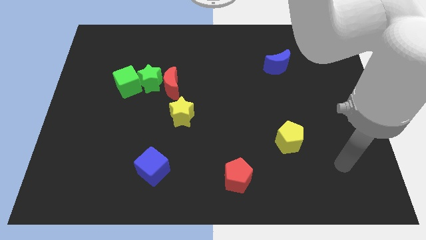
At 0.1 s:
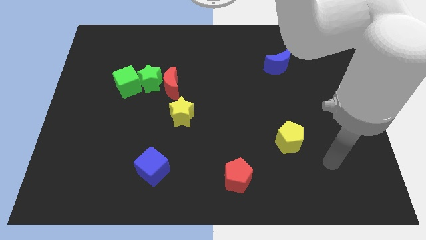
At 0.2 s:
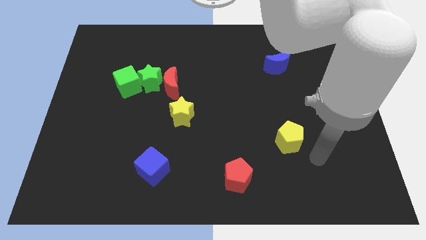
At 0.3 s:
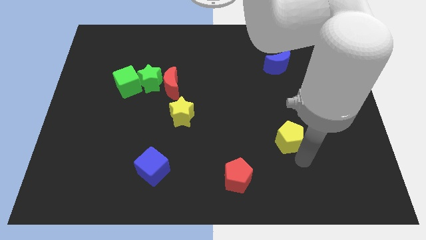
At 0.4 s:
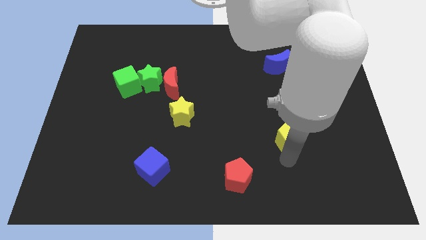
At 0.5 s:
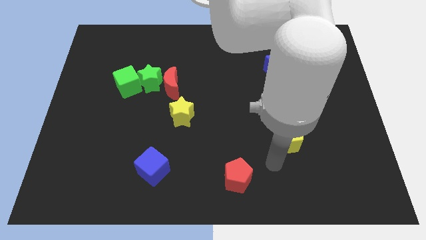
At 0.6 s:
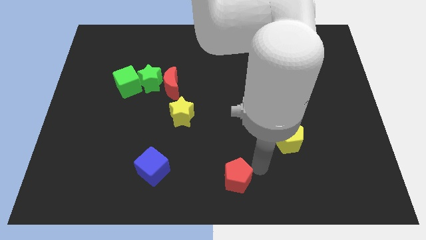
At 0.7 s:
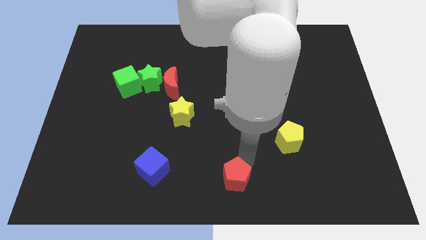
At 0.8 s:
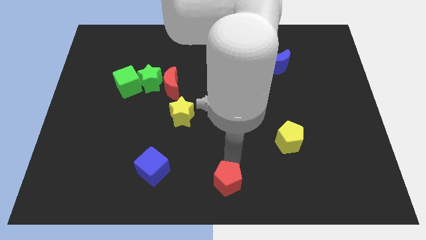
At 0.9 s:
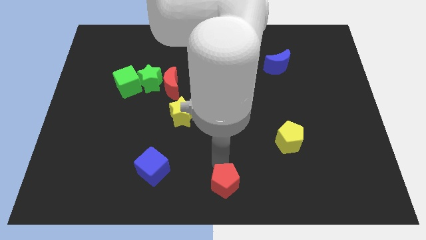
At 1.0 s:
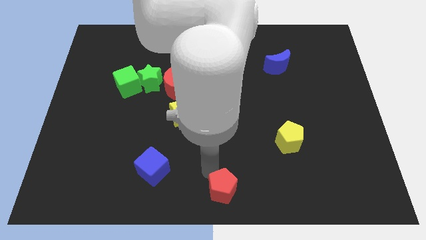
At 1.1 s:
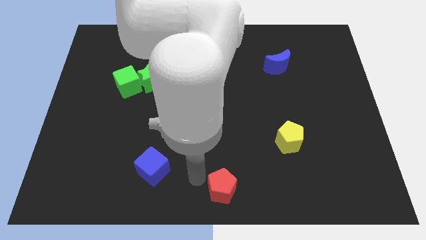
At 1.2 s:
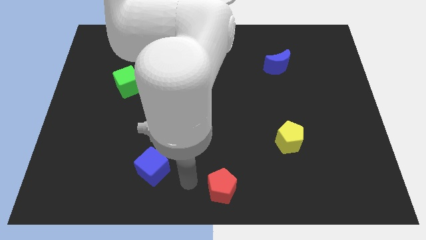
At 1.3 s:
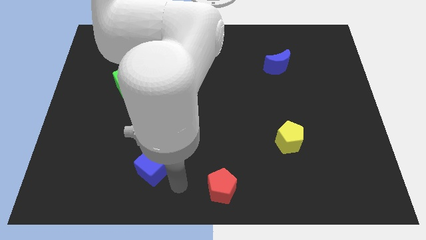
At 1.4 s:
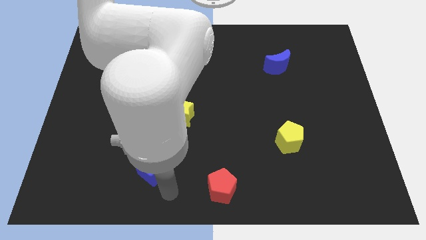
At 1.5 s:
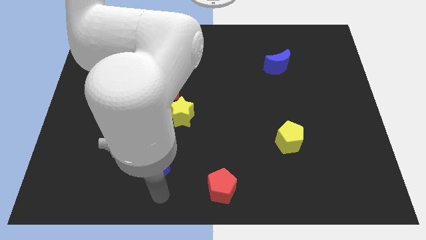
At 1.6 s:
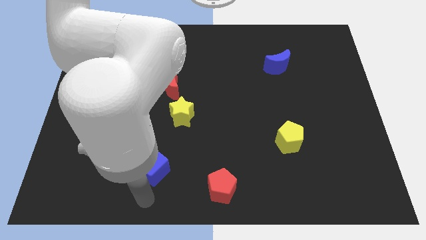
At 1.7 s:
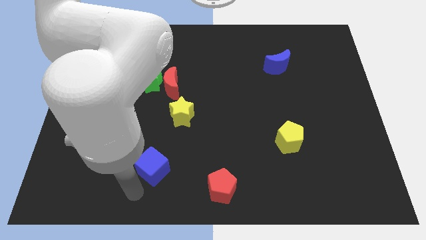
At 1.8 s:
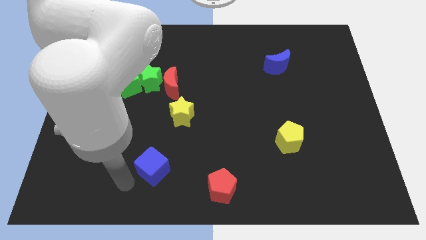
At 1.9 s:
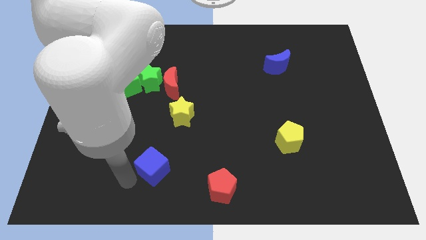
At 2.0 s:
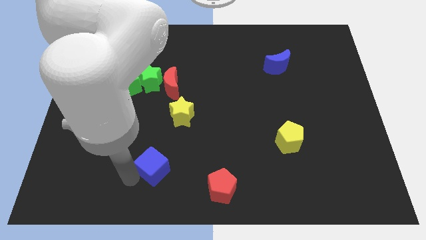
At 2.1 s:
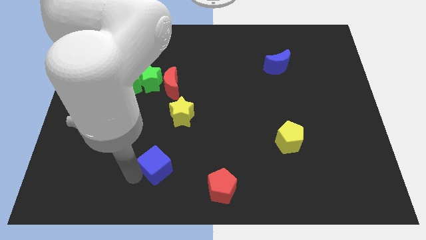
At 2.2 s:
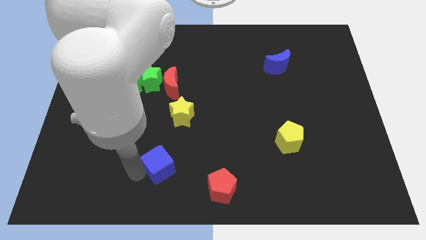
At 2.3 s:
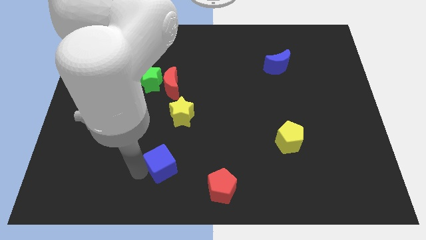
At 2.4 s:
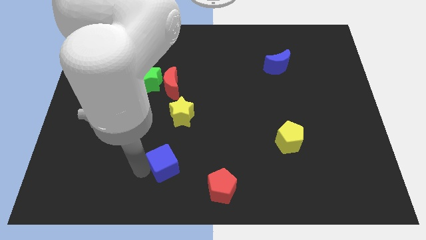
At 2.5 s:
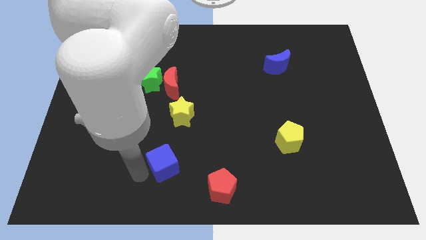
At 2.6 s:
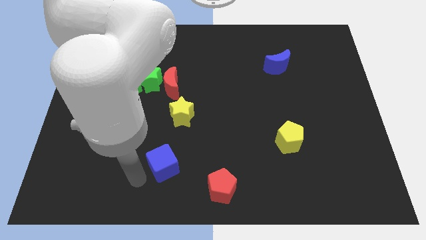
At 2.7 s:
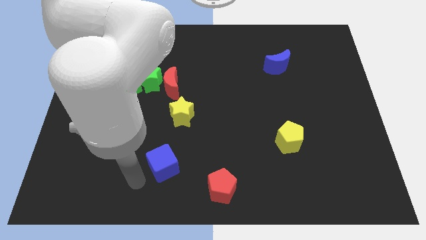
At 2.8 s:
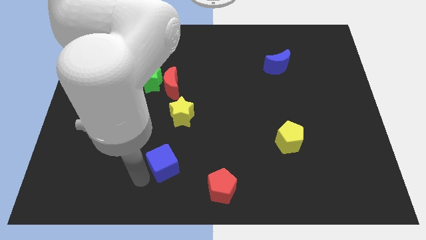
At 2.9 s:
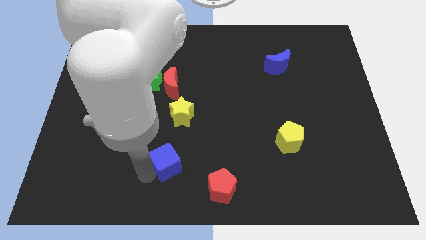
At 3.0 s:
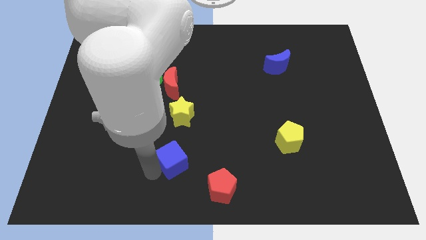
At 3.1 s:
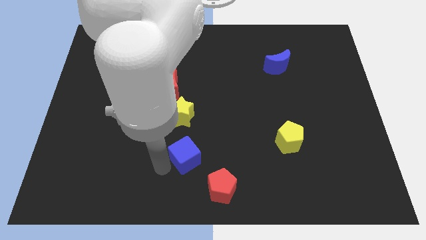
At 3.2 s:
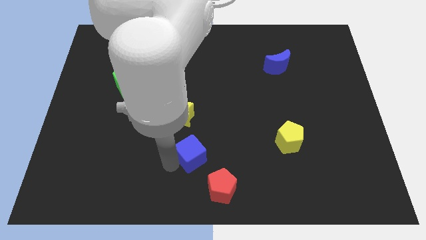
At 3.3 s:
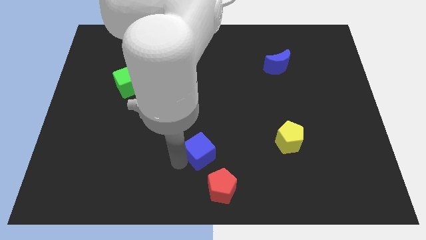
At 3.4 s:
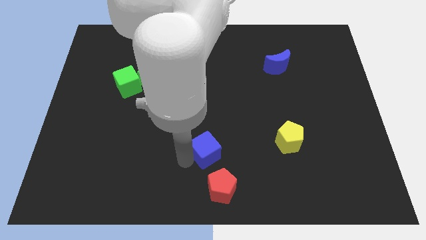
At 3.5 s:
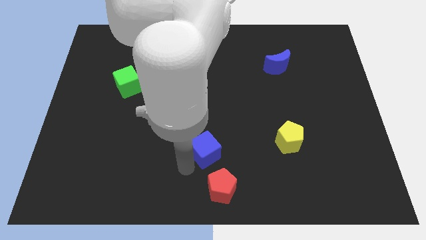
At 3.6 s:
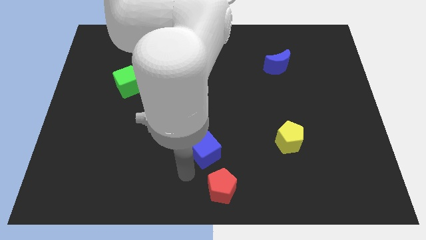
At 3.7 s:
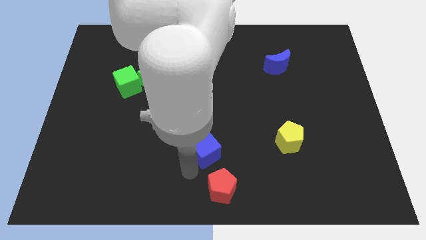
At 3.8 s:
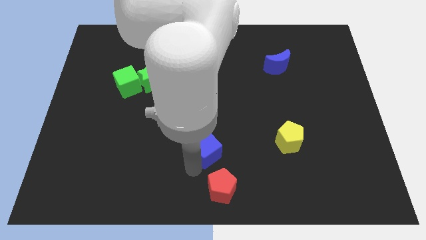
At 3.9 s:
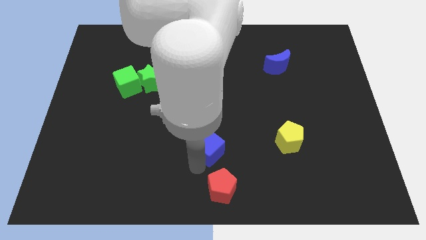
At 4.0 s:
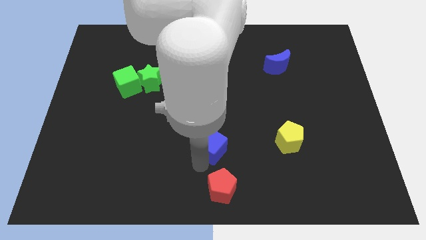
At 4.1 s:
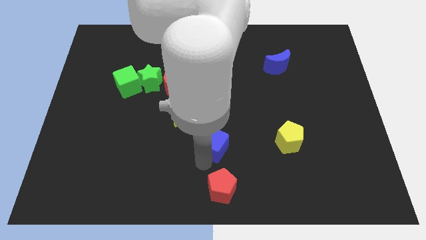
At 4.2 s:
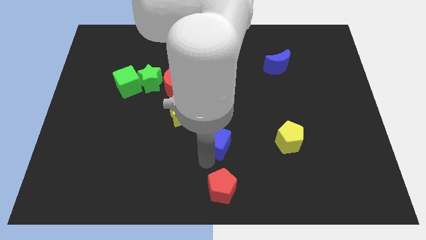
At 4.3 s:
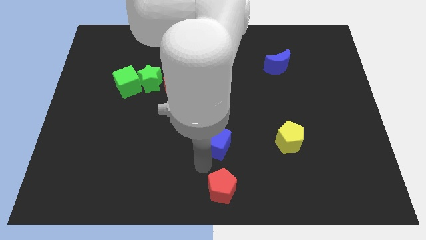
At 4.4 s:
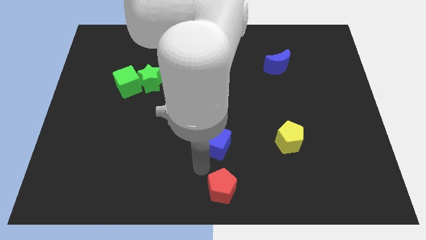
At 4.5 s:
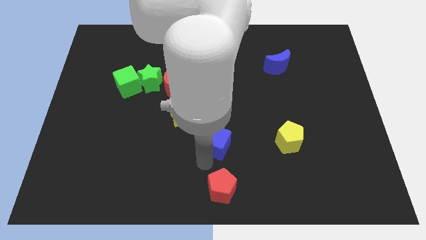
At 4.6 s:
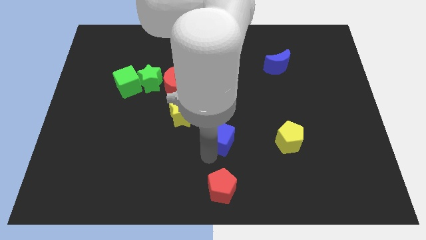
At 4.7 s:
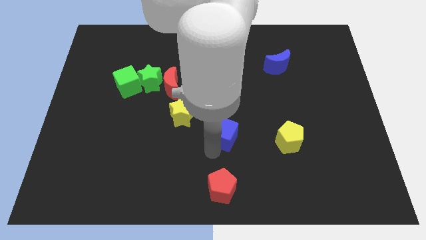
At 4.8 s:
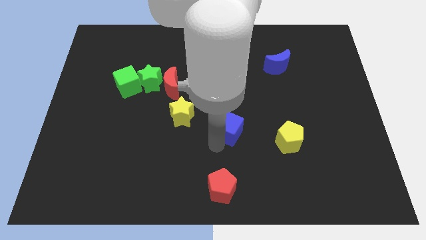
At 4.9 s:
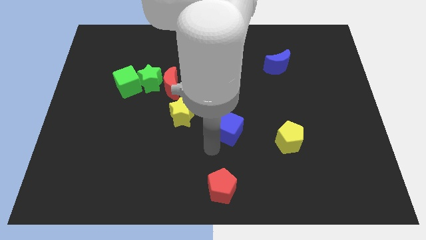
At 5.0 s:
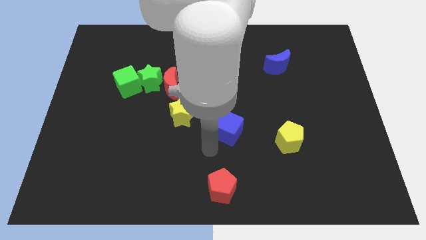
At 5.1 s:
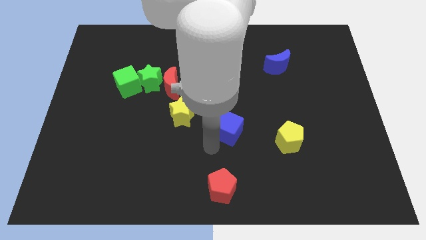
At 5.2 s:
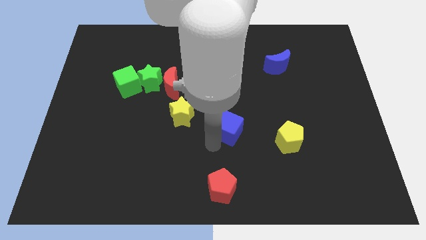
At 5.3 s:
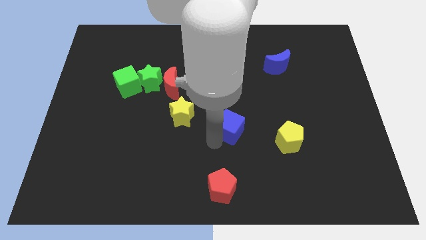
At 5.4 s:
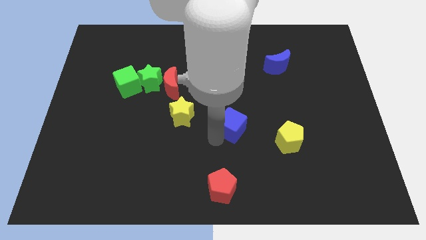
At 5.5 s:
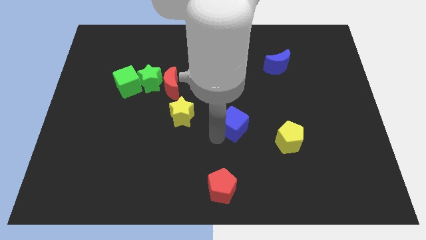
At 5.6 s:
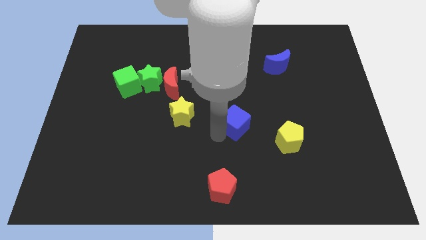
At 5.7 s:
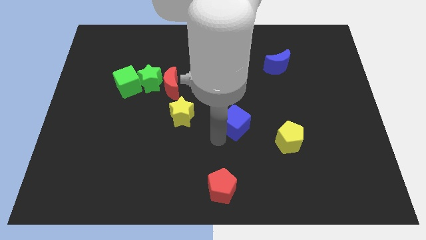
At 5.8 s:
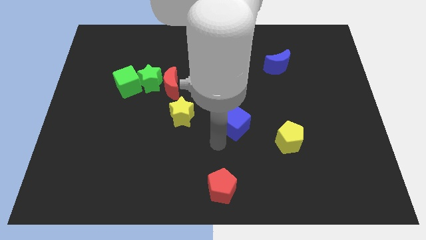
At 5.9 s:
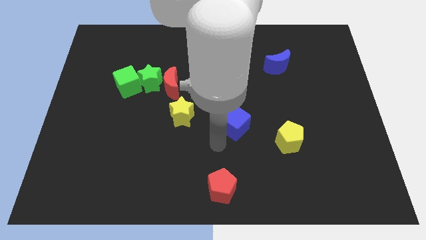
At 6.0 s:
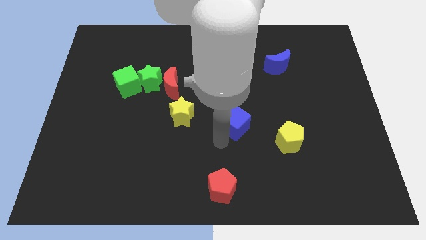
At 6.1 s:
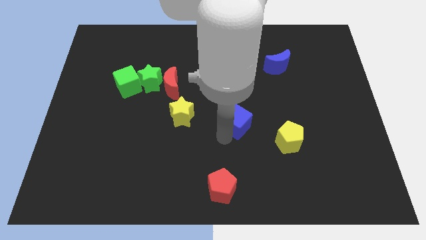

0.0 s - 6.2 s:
push the blue cube upwards and to the right

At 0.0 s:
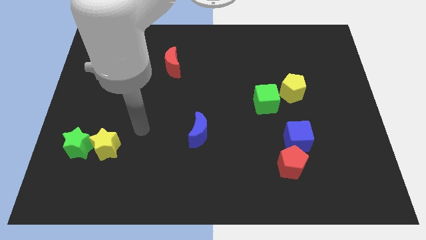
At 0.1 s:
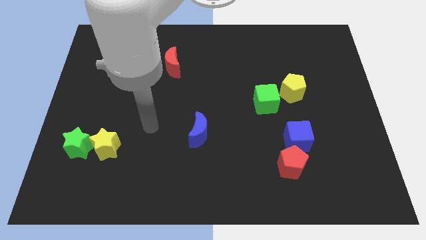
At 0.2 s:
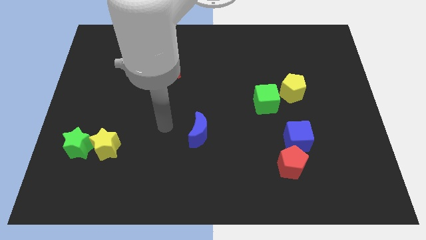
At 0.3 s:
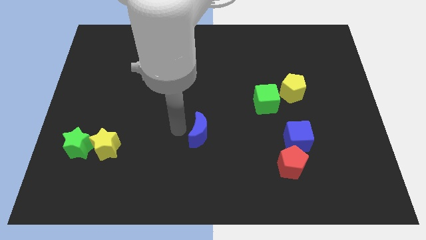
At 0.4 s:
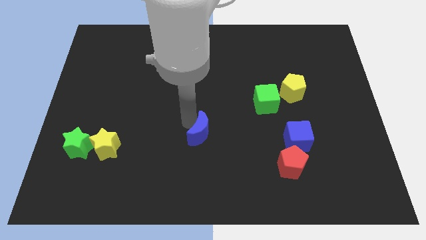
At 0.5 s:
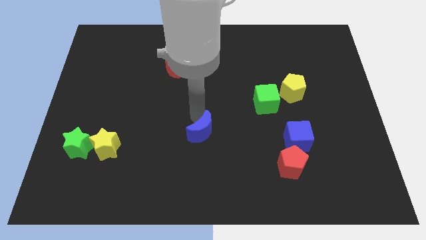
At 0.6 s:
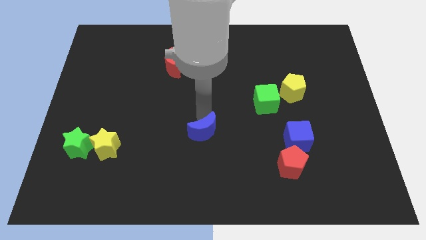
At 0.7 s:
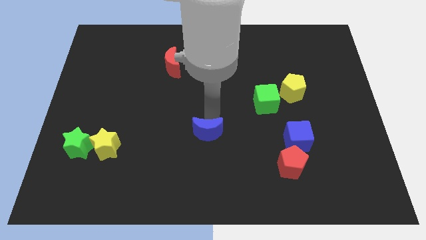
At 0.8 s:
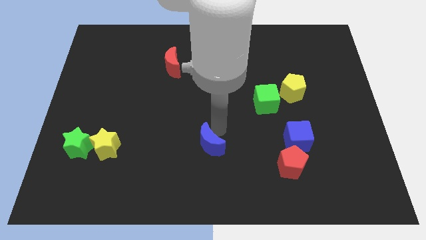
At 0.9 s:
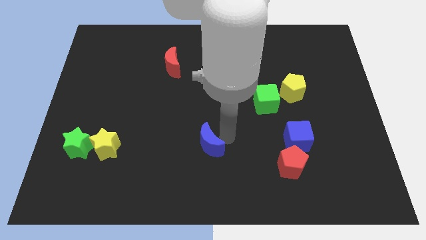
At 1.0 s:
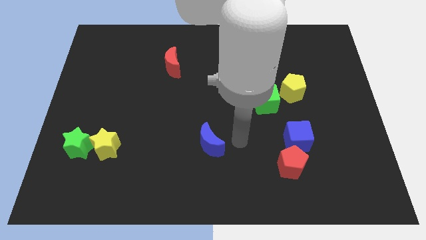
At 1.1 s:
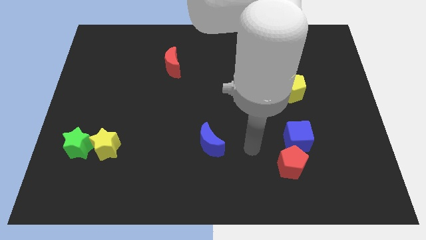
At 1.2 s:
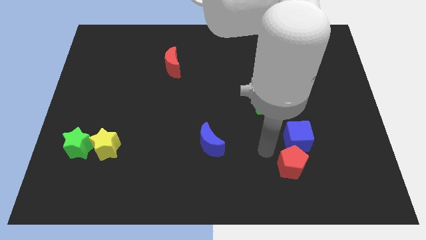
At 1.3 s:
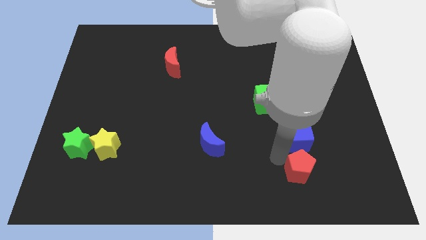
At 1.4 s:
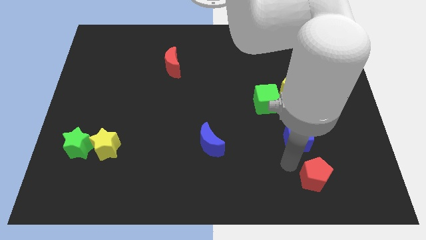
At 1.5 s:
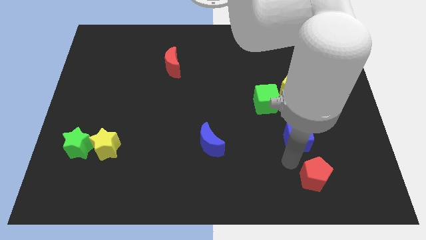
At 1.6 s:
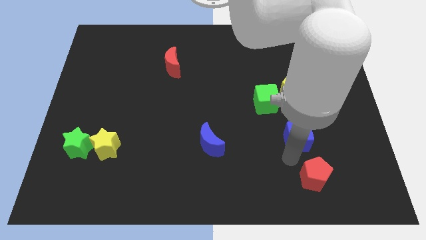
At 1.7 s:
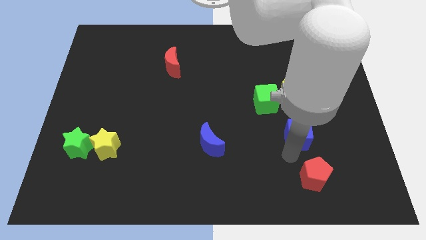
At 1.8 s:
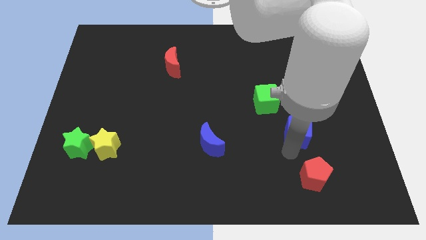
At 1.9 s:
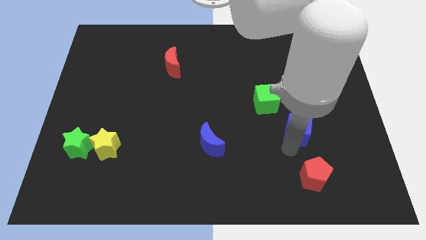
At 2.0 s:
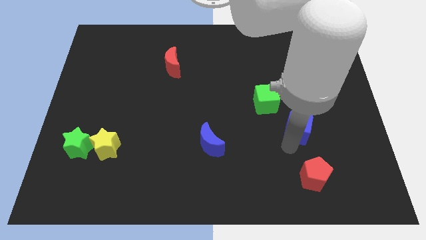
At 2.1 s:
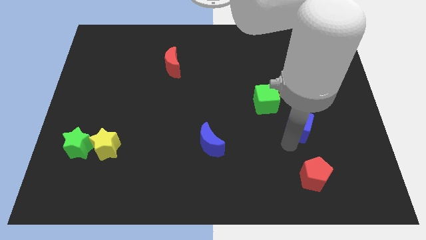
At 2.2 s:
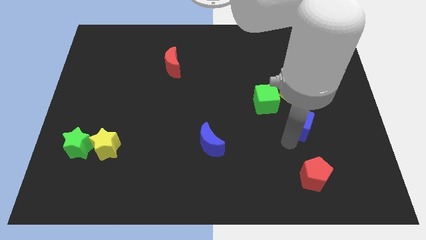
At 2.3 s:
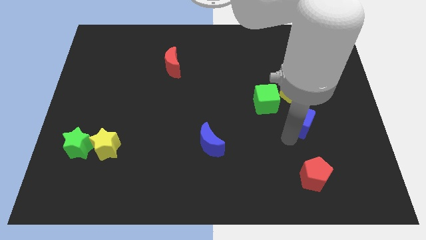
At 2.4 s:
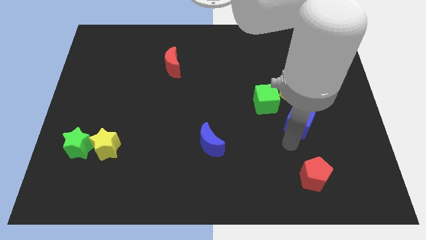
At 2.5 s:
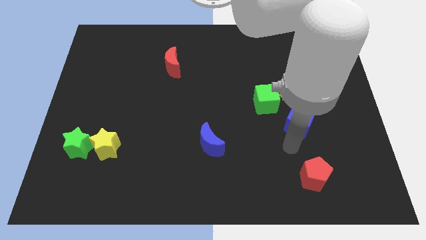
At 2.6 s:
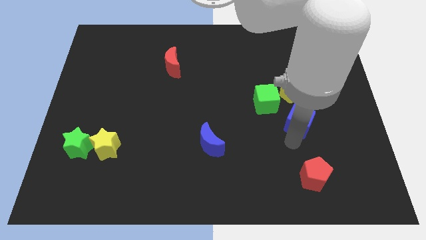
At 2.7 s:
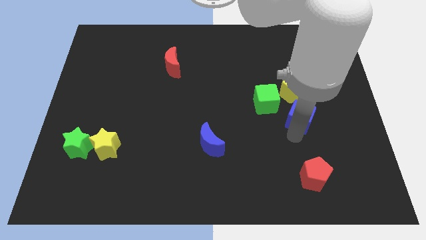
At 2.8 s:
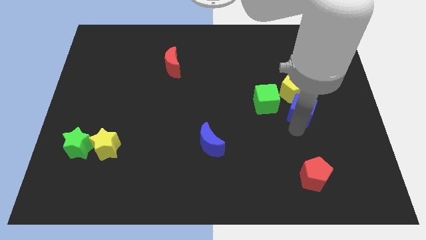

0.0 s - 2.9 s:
move the blue cube up somewhat
